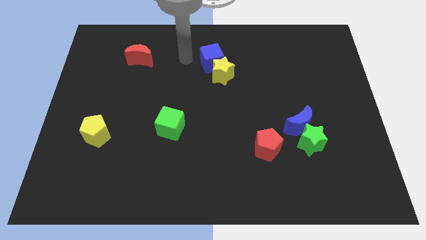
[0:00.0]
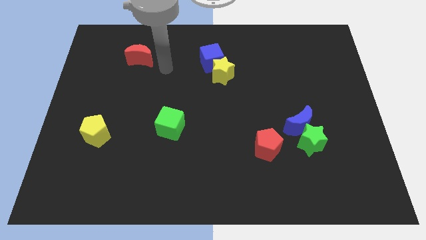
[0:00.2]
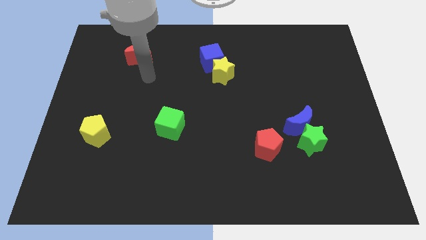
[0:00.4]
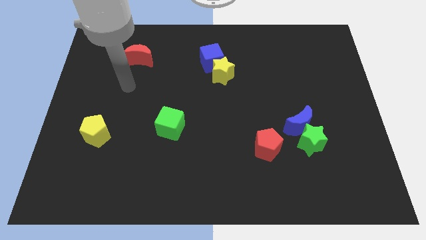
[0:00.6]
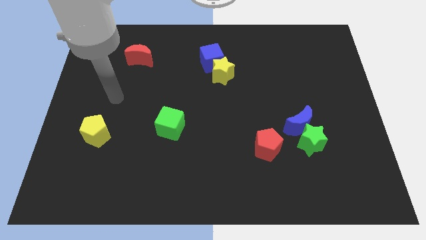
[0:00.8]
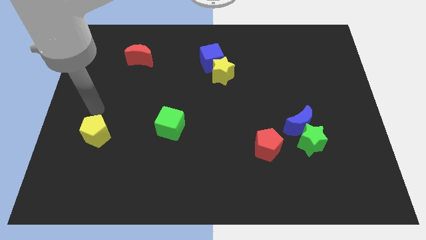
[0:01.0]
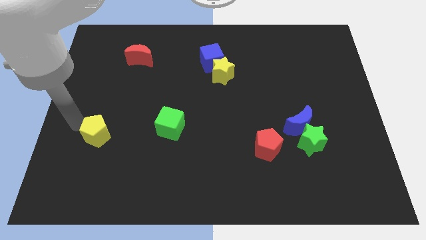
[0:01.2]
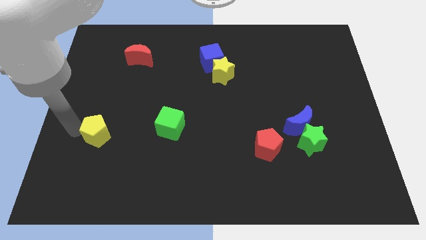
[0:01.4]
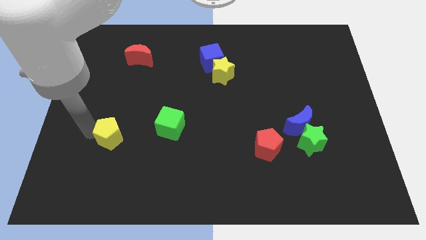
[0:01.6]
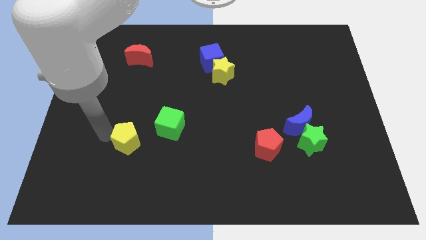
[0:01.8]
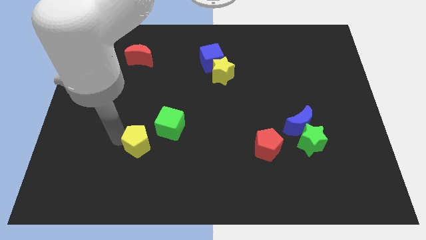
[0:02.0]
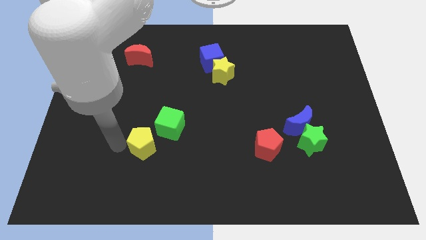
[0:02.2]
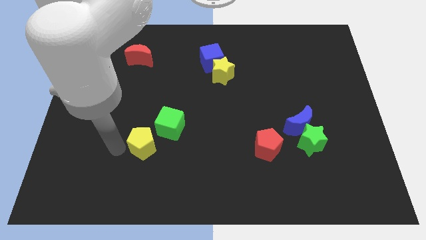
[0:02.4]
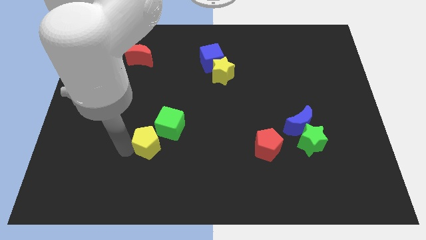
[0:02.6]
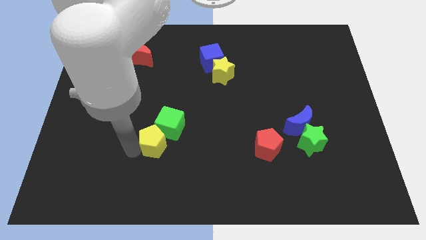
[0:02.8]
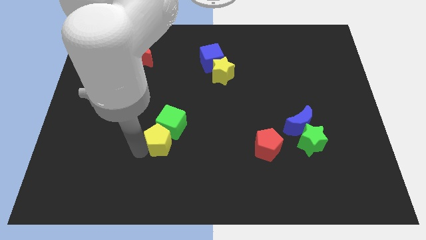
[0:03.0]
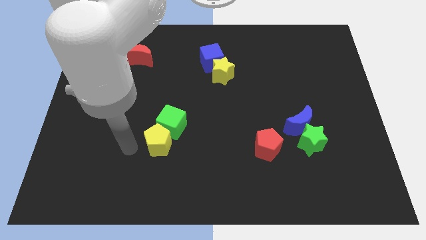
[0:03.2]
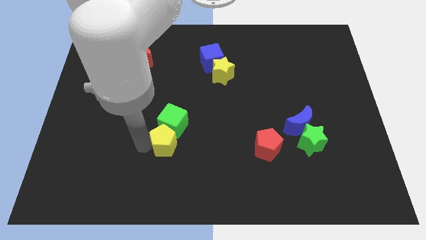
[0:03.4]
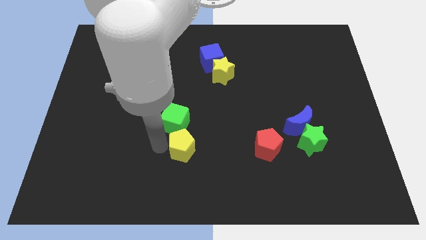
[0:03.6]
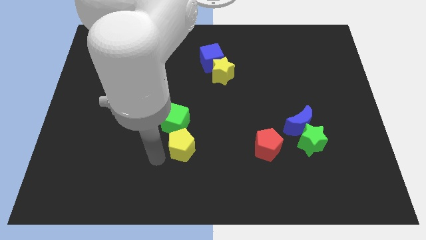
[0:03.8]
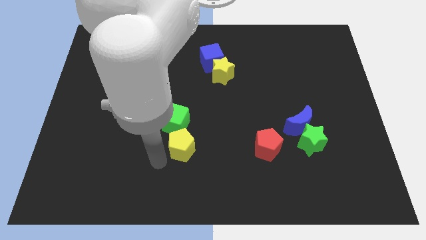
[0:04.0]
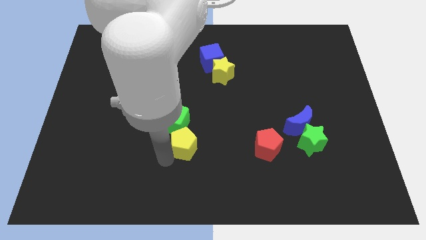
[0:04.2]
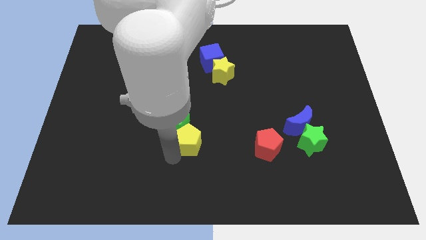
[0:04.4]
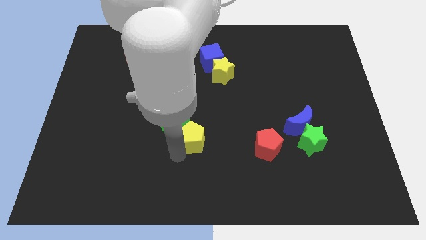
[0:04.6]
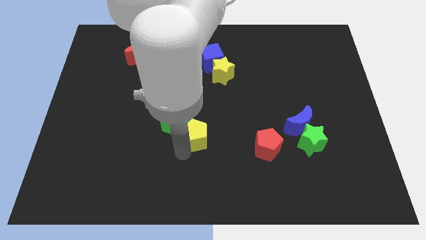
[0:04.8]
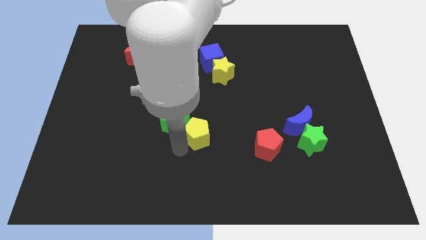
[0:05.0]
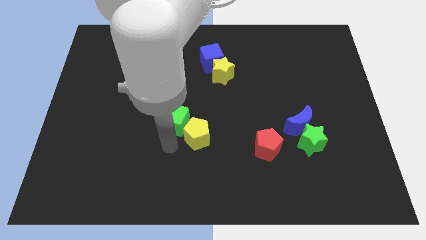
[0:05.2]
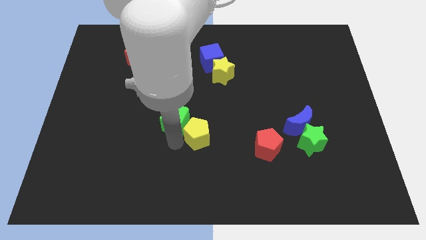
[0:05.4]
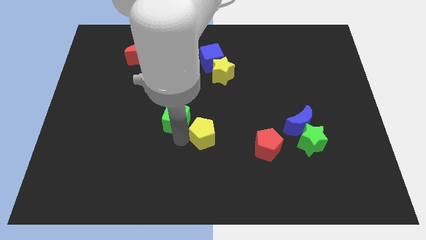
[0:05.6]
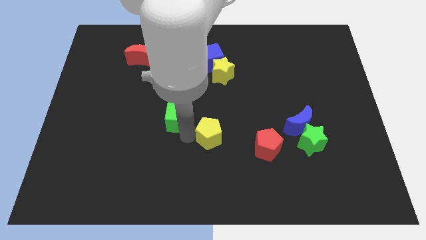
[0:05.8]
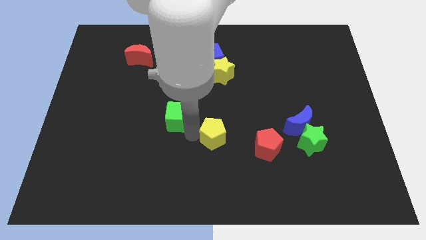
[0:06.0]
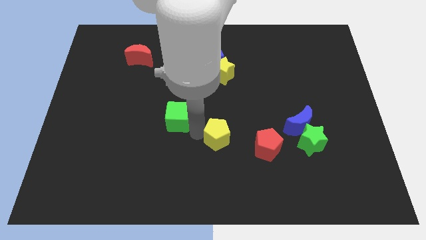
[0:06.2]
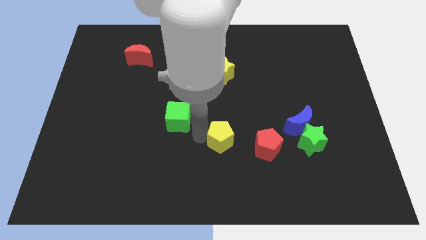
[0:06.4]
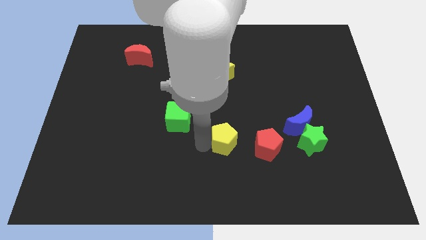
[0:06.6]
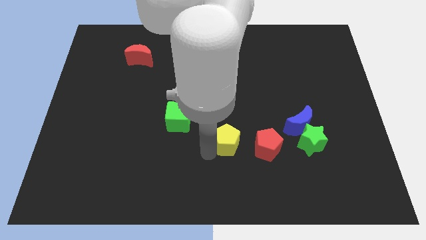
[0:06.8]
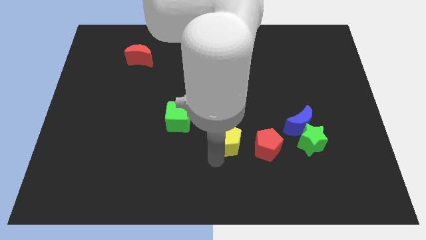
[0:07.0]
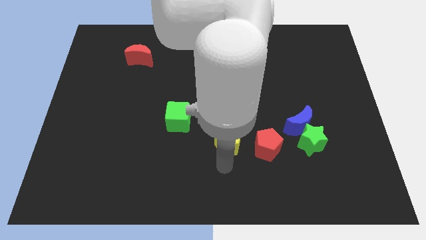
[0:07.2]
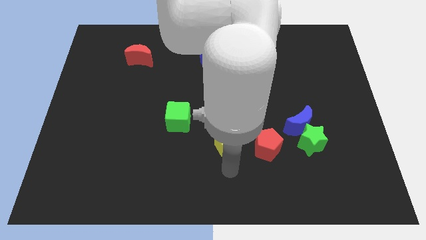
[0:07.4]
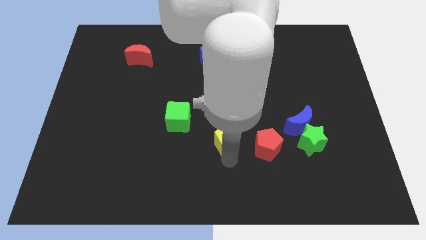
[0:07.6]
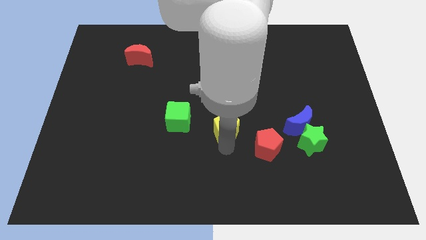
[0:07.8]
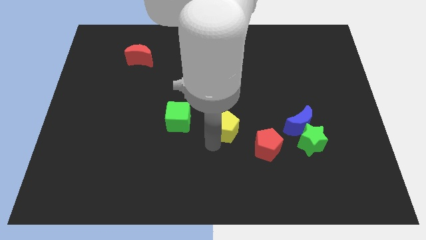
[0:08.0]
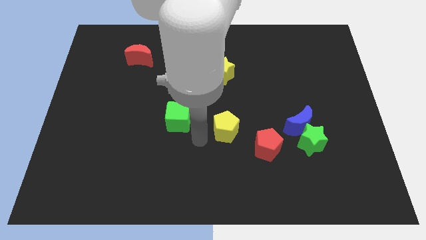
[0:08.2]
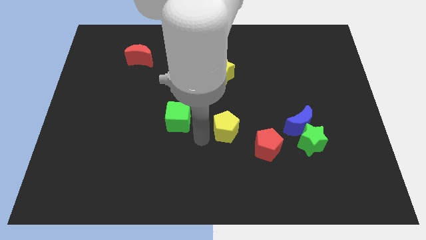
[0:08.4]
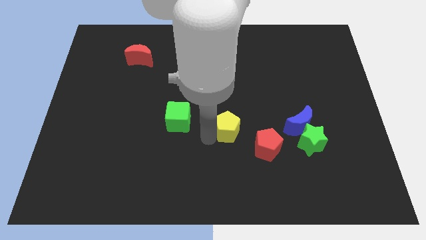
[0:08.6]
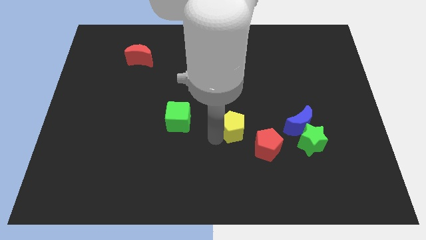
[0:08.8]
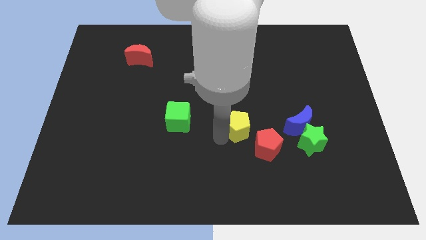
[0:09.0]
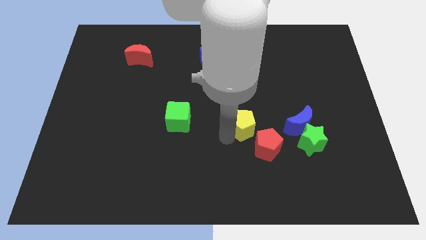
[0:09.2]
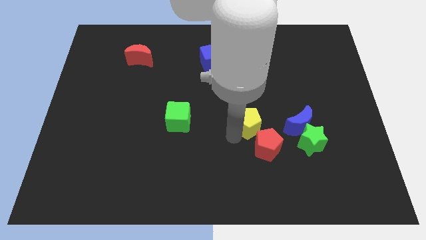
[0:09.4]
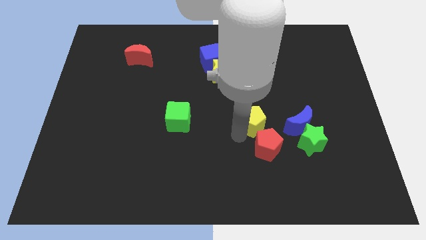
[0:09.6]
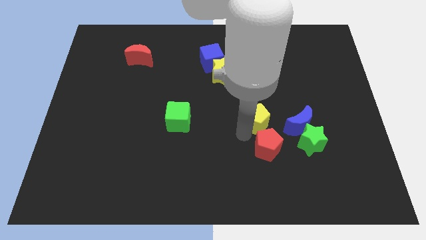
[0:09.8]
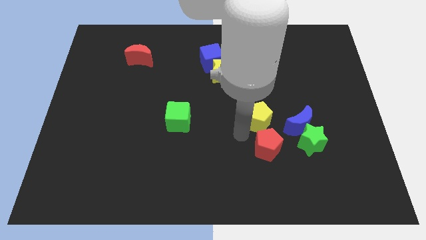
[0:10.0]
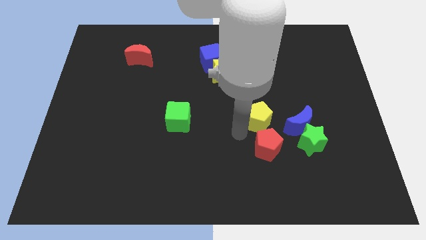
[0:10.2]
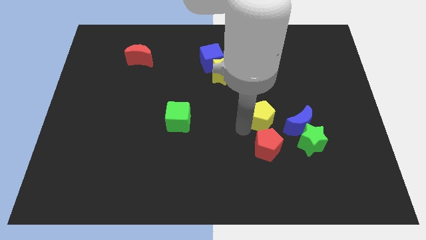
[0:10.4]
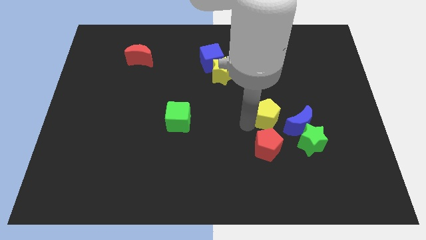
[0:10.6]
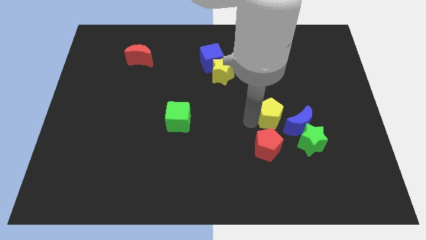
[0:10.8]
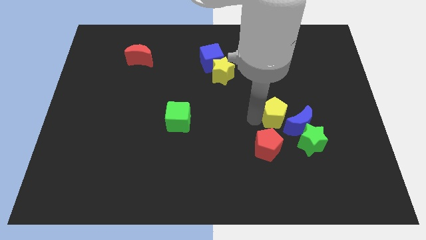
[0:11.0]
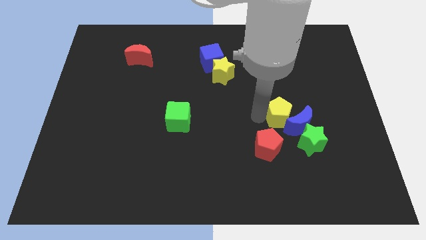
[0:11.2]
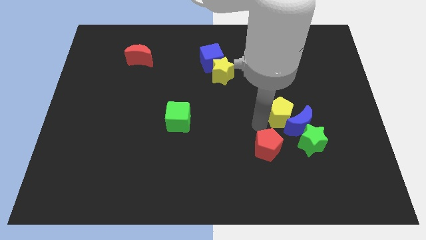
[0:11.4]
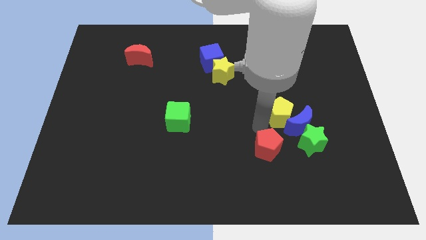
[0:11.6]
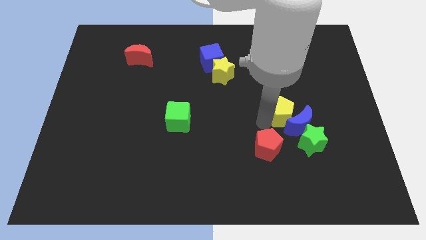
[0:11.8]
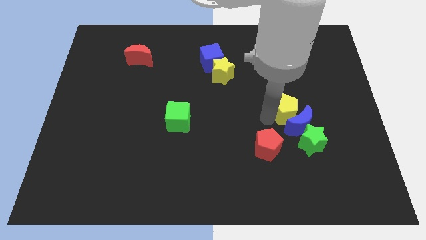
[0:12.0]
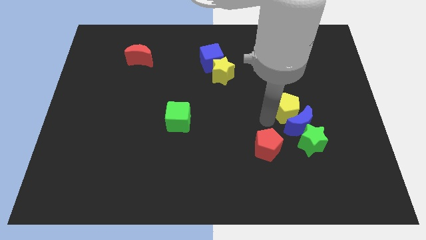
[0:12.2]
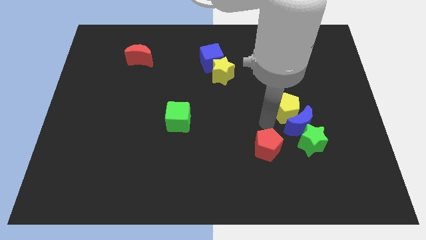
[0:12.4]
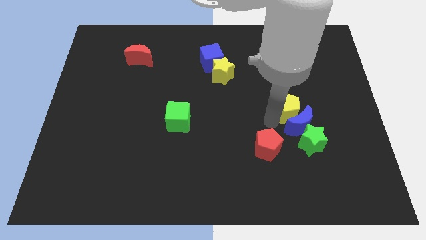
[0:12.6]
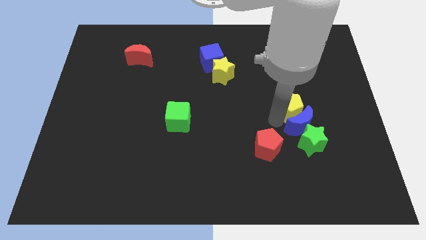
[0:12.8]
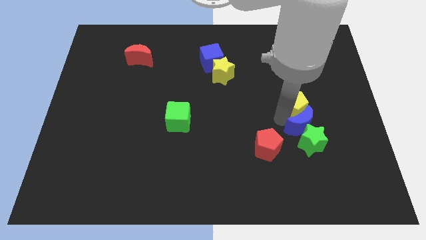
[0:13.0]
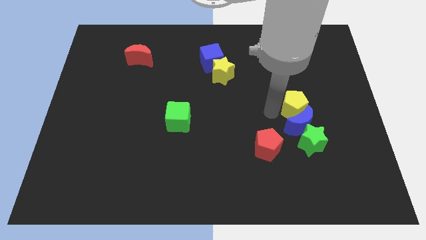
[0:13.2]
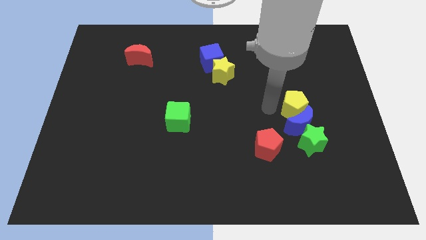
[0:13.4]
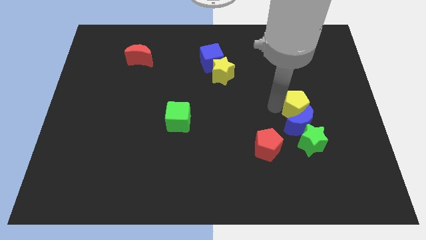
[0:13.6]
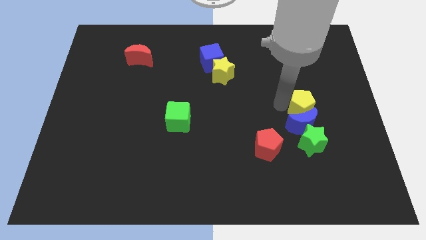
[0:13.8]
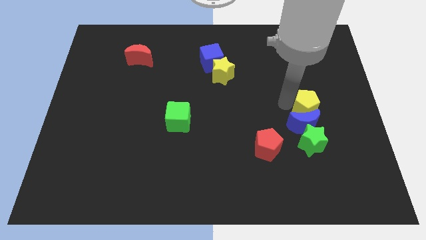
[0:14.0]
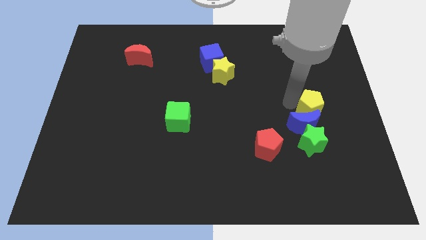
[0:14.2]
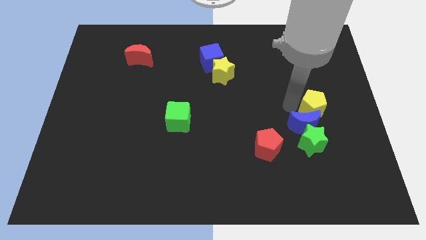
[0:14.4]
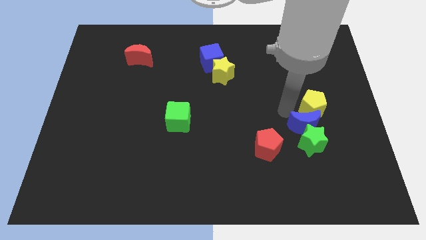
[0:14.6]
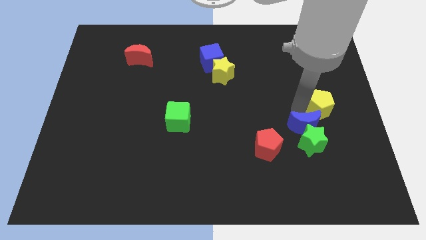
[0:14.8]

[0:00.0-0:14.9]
put the yellow pentagon to the right side of the board
